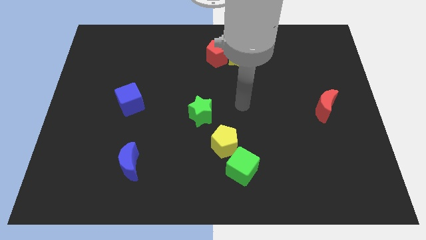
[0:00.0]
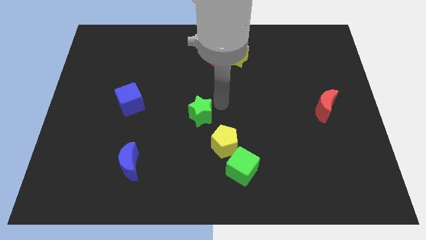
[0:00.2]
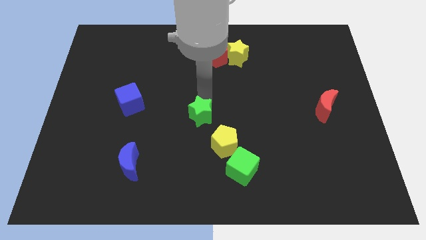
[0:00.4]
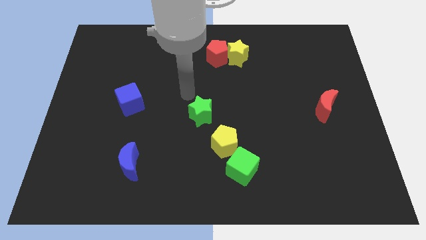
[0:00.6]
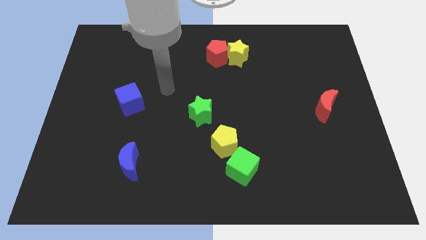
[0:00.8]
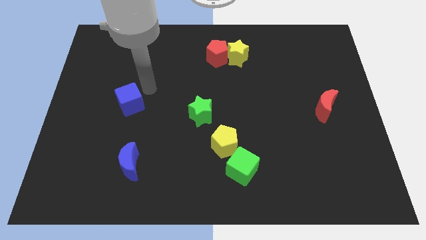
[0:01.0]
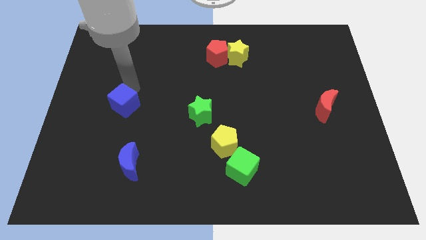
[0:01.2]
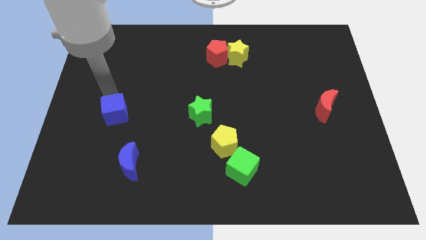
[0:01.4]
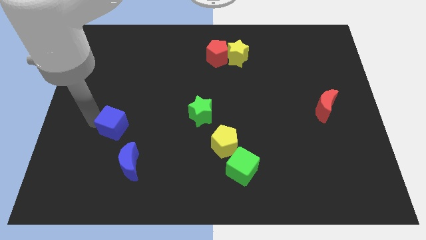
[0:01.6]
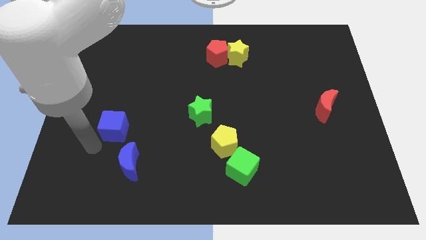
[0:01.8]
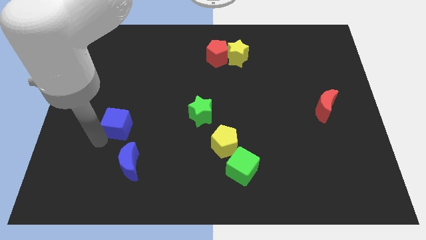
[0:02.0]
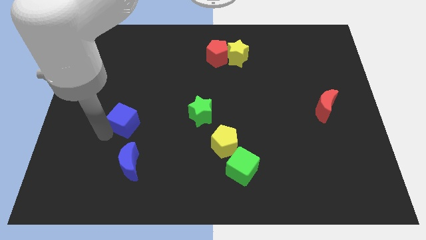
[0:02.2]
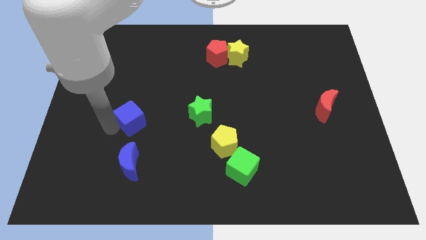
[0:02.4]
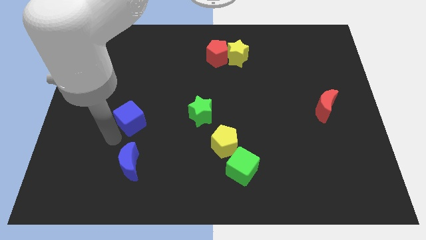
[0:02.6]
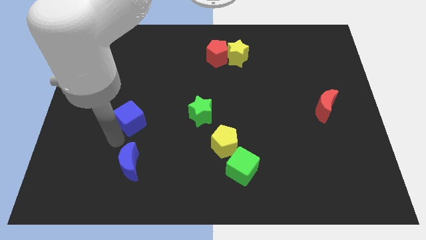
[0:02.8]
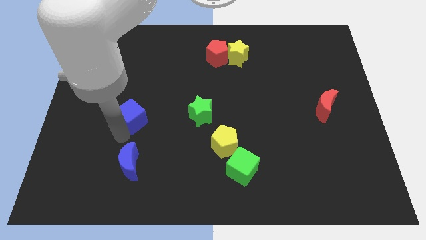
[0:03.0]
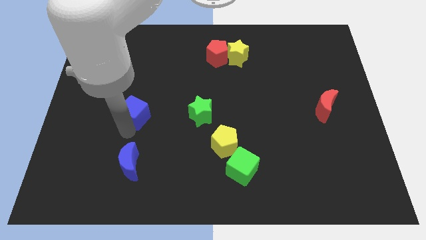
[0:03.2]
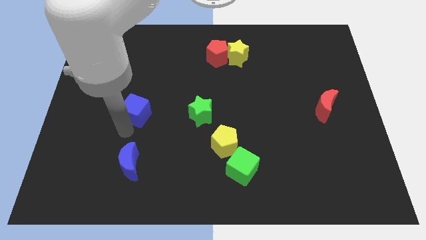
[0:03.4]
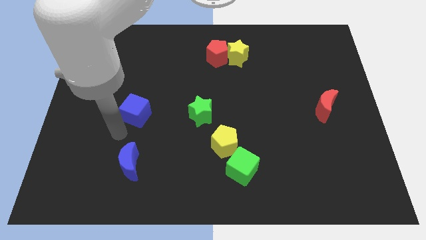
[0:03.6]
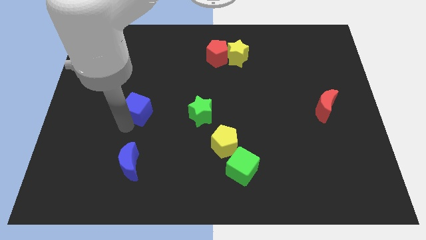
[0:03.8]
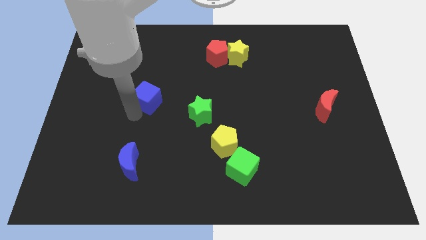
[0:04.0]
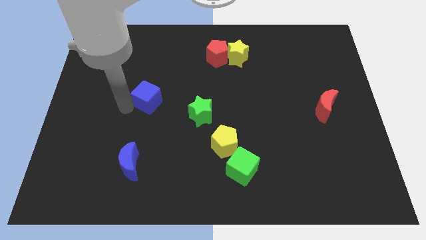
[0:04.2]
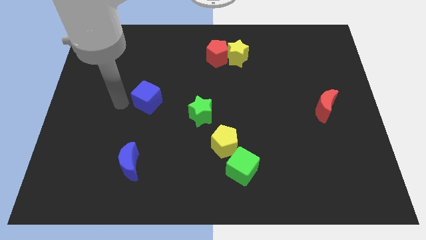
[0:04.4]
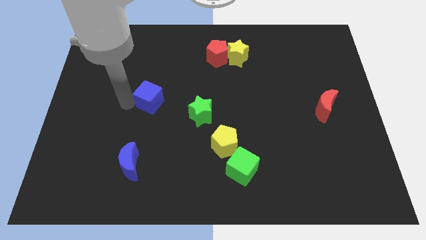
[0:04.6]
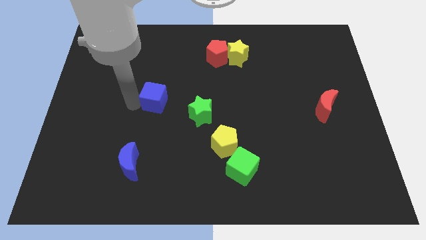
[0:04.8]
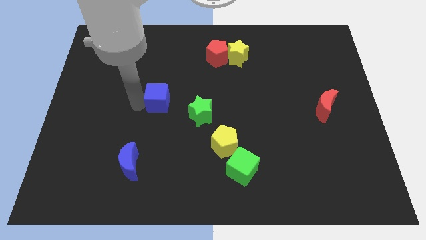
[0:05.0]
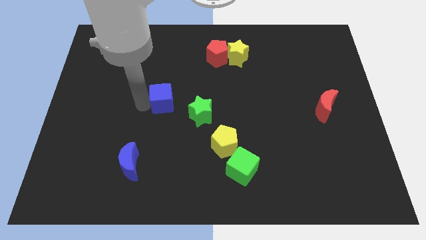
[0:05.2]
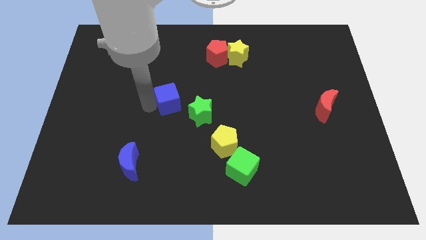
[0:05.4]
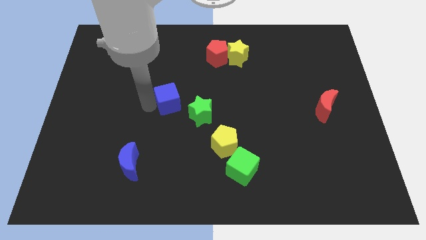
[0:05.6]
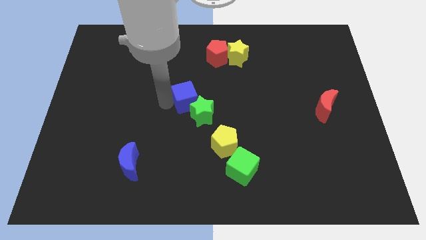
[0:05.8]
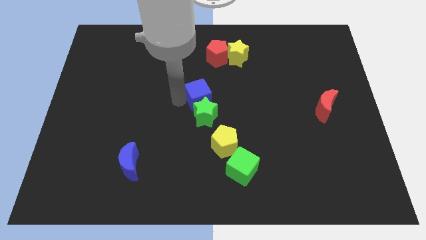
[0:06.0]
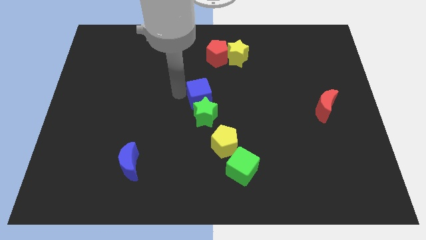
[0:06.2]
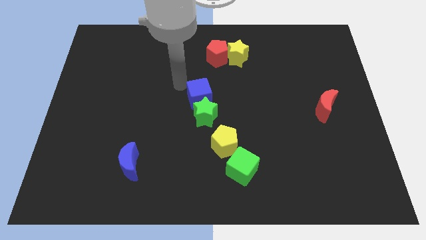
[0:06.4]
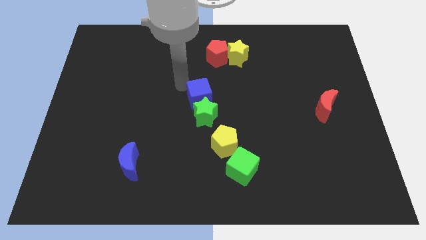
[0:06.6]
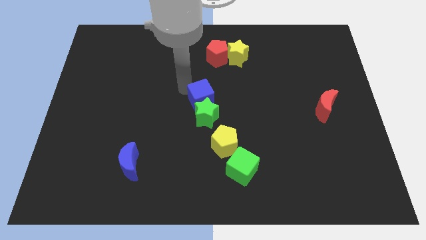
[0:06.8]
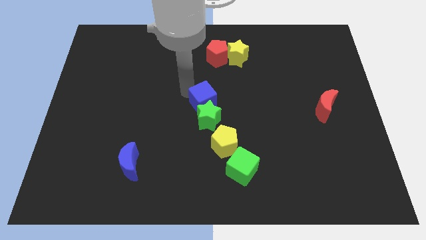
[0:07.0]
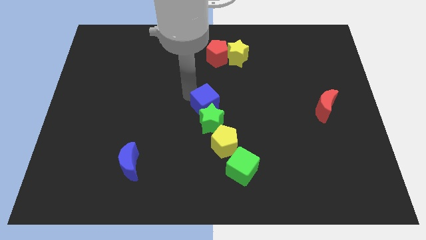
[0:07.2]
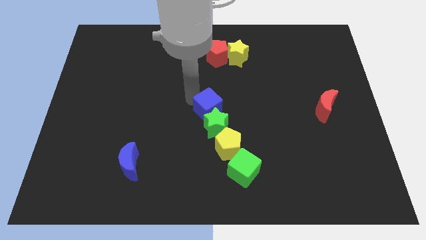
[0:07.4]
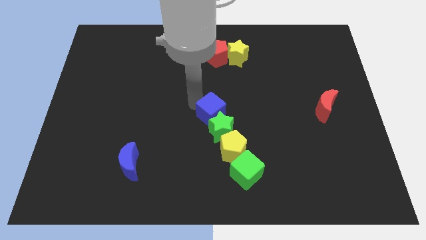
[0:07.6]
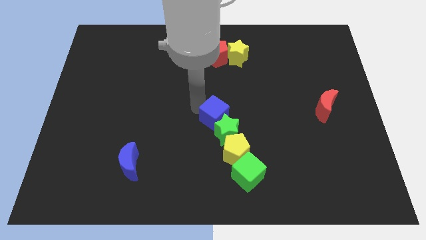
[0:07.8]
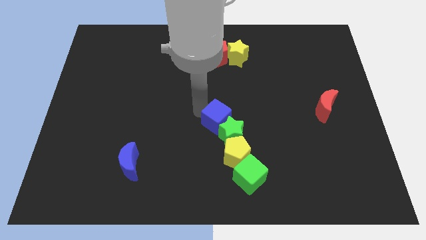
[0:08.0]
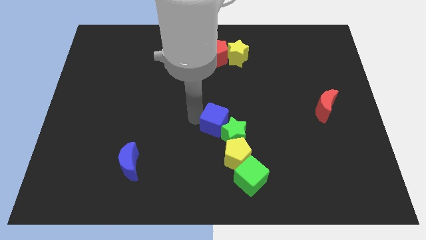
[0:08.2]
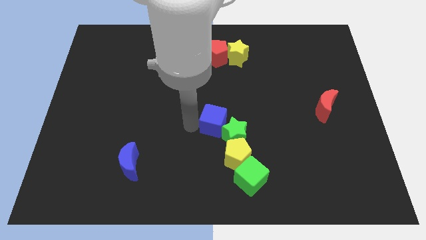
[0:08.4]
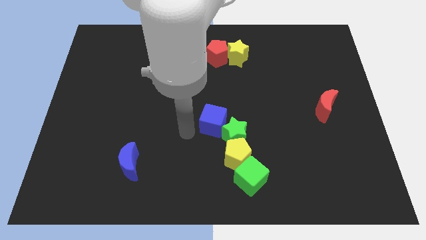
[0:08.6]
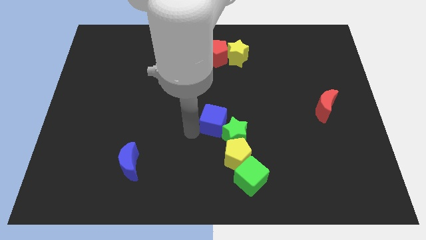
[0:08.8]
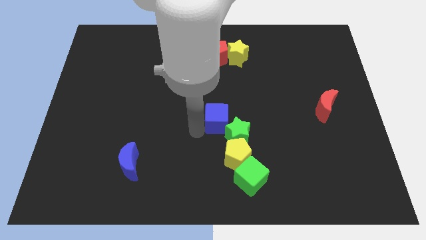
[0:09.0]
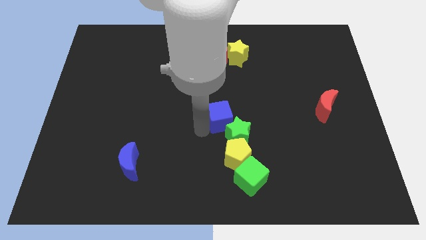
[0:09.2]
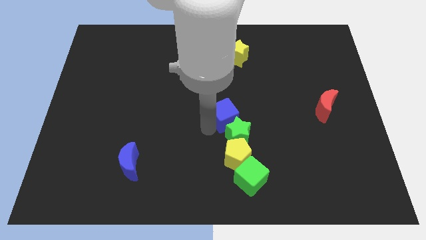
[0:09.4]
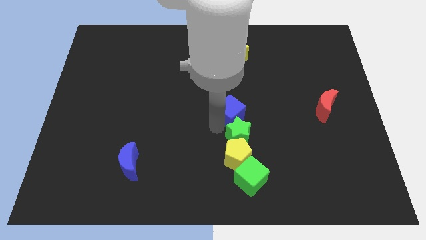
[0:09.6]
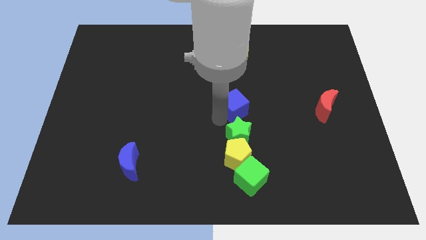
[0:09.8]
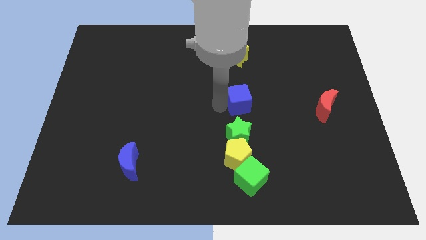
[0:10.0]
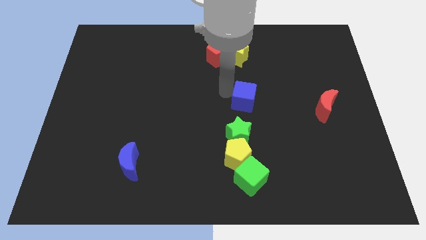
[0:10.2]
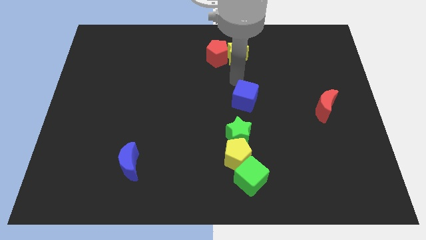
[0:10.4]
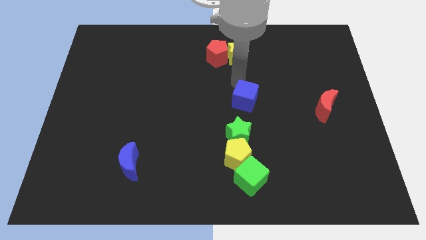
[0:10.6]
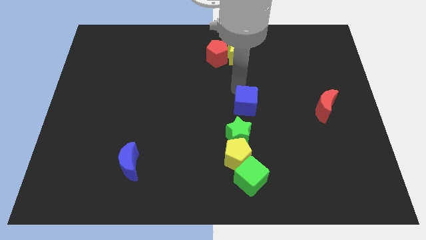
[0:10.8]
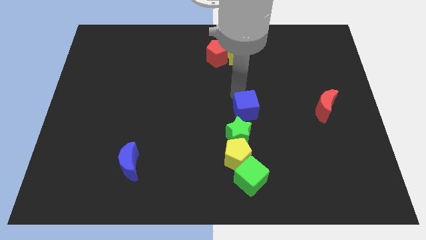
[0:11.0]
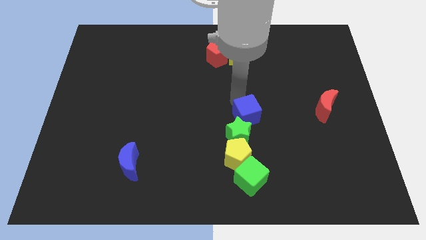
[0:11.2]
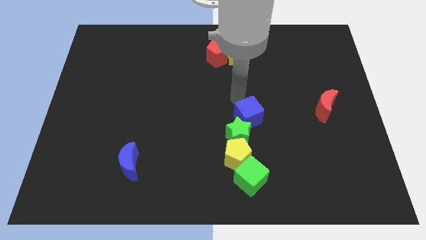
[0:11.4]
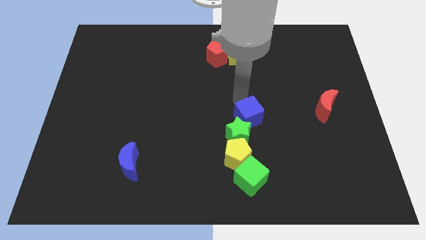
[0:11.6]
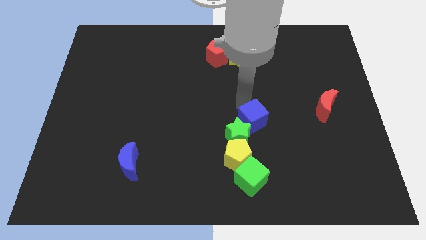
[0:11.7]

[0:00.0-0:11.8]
push the blue cube to the top right side of the yellow pentagon

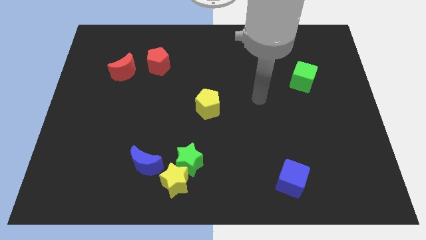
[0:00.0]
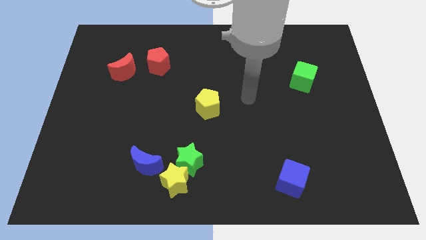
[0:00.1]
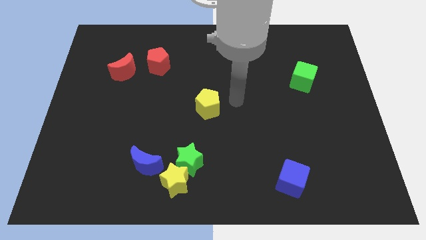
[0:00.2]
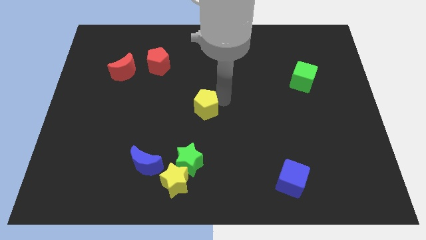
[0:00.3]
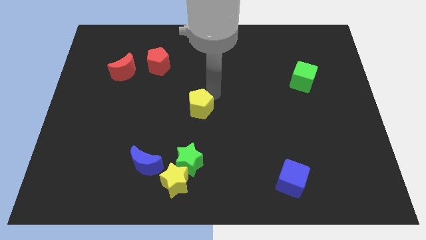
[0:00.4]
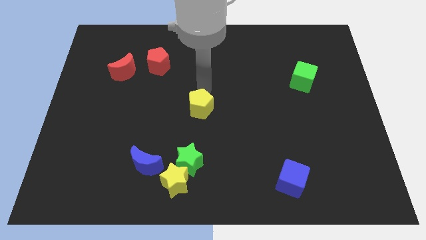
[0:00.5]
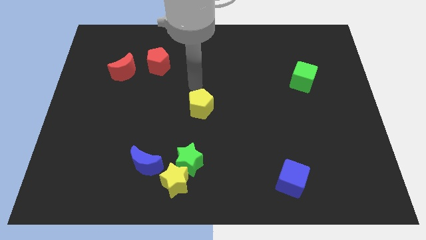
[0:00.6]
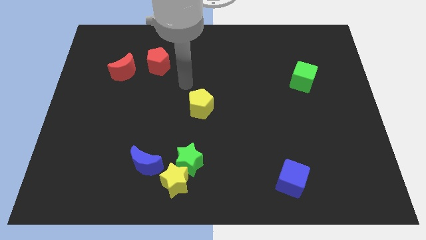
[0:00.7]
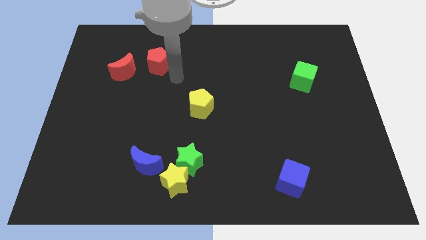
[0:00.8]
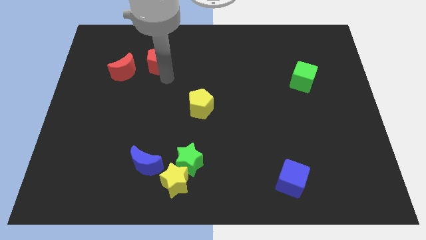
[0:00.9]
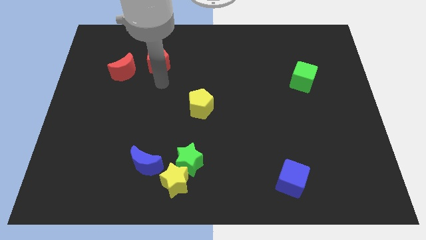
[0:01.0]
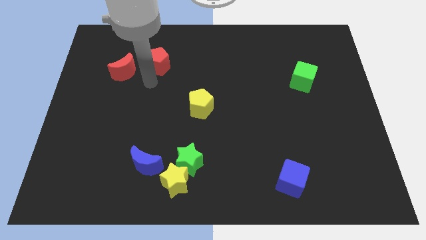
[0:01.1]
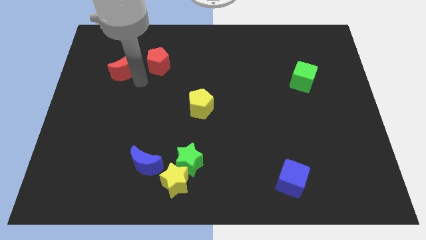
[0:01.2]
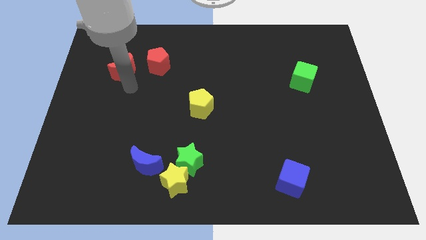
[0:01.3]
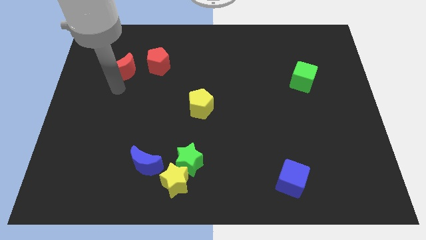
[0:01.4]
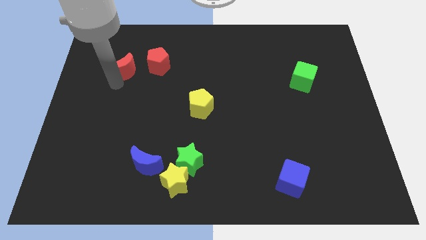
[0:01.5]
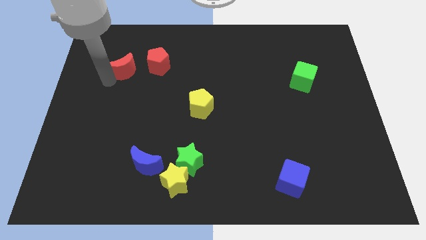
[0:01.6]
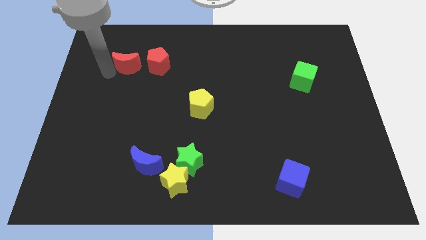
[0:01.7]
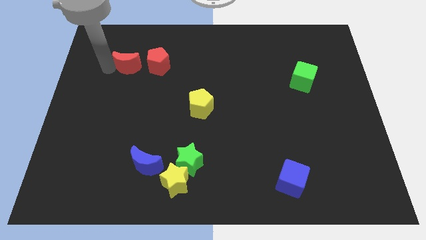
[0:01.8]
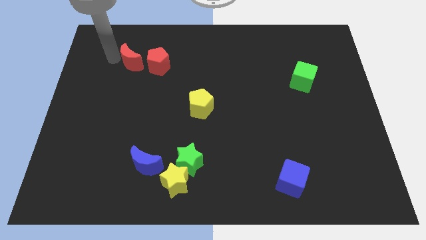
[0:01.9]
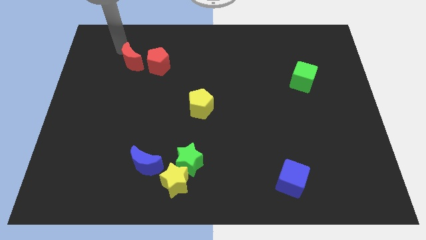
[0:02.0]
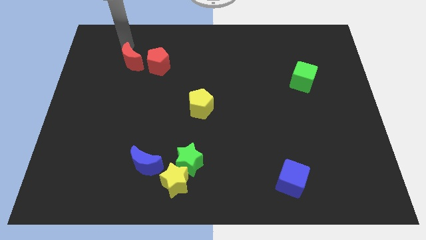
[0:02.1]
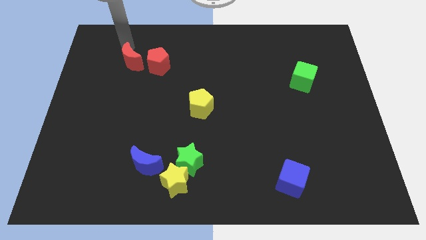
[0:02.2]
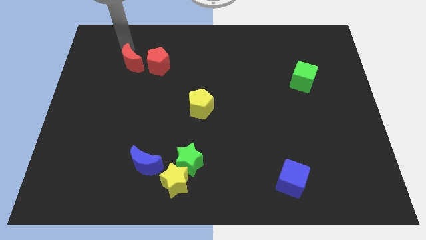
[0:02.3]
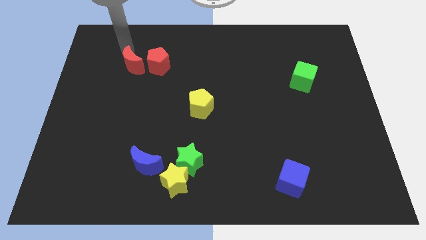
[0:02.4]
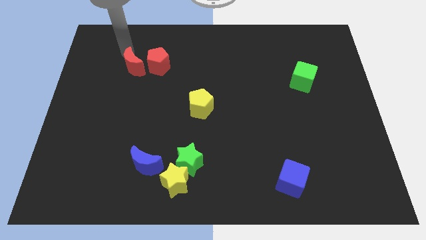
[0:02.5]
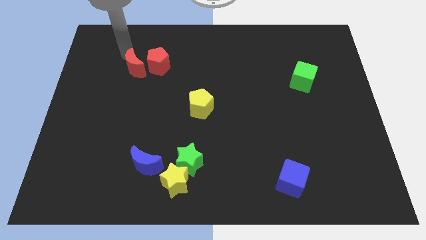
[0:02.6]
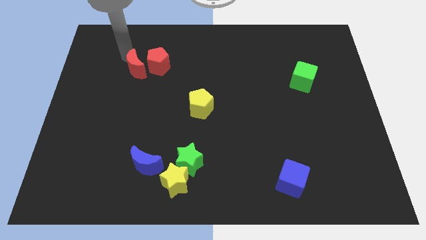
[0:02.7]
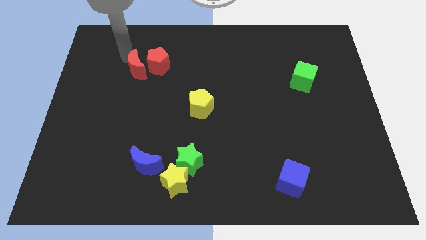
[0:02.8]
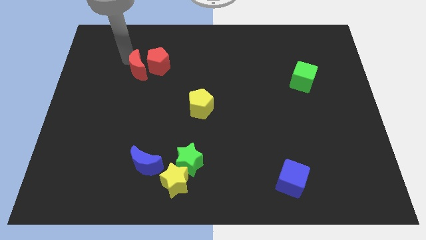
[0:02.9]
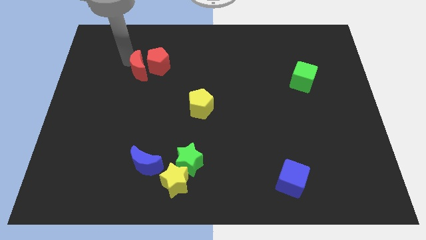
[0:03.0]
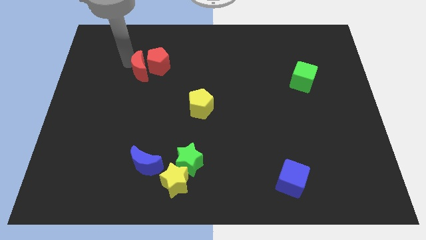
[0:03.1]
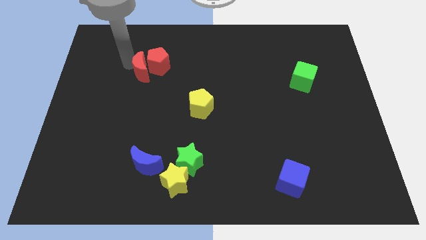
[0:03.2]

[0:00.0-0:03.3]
put the red moon to the bottom of the red pentagon
